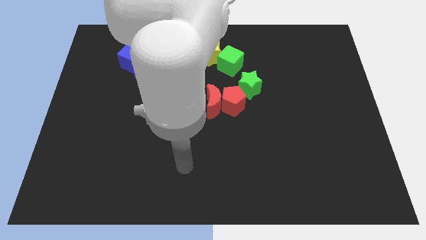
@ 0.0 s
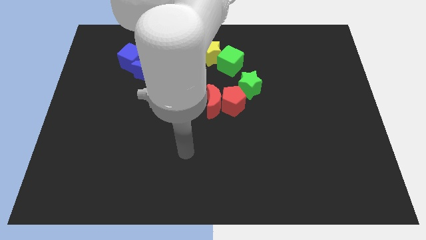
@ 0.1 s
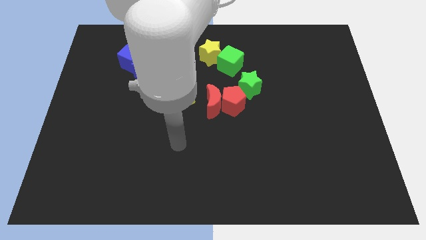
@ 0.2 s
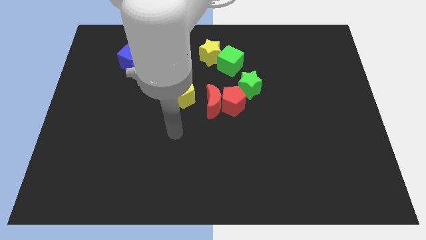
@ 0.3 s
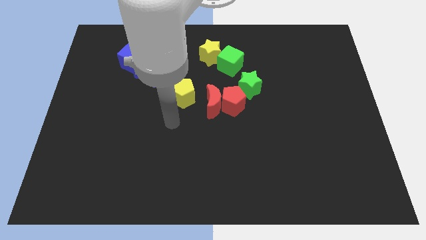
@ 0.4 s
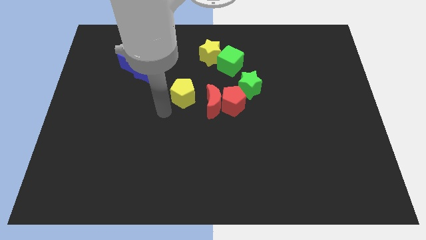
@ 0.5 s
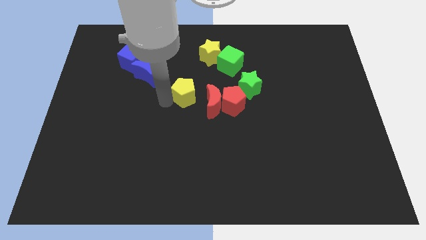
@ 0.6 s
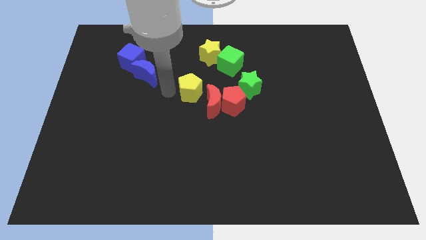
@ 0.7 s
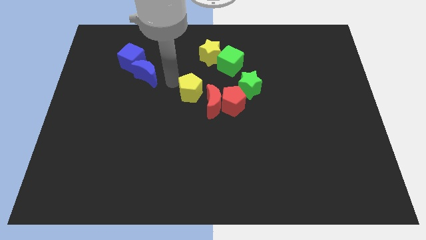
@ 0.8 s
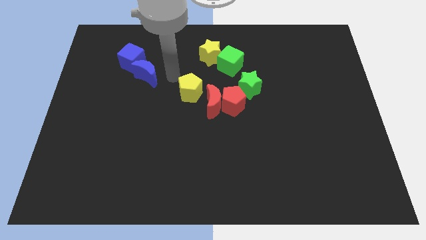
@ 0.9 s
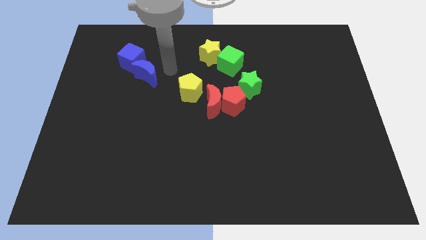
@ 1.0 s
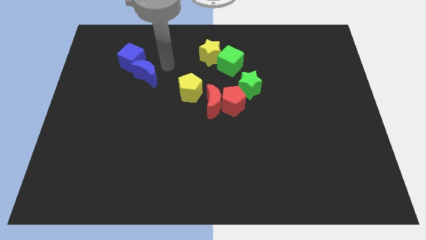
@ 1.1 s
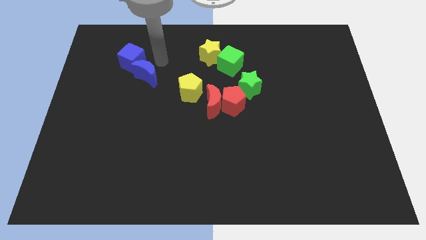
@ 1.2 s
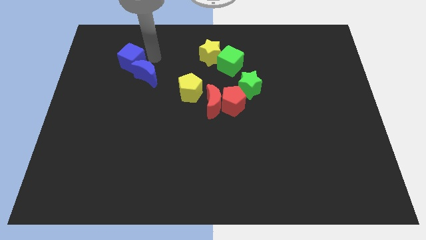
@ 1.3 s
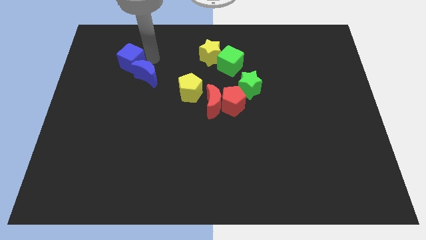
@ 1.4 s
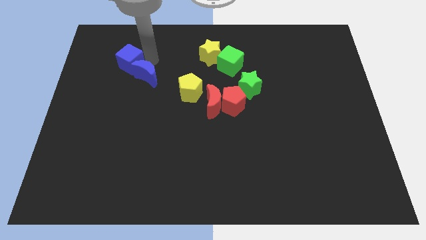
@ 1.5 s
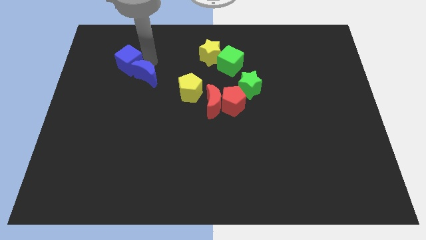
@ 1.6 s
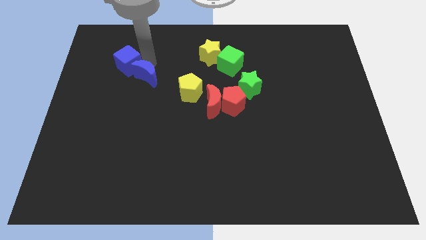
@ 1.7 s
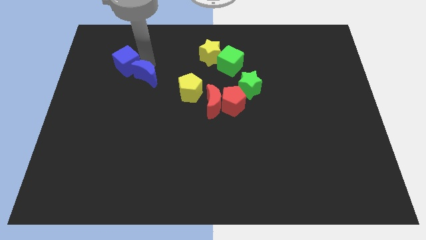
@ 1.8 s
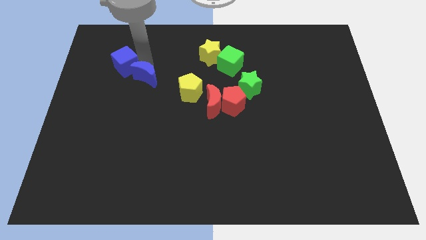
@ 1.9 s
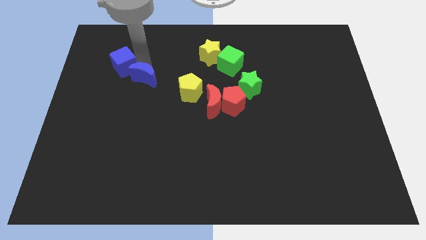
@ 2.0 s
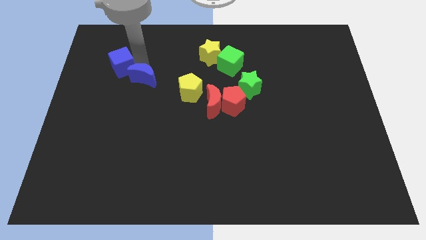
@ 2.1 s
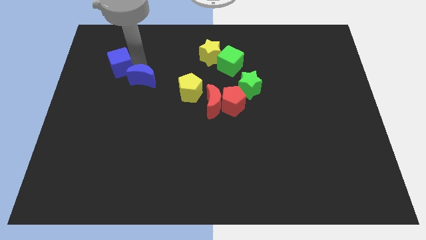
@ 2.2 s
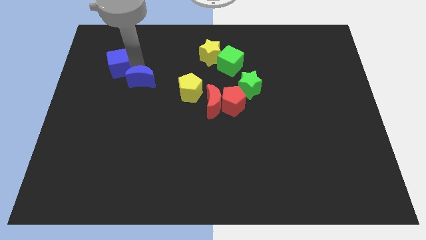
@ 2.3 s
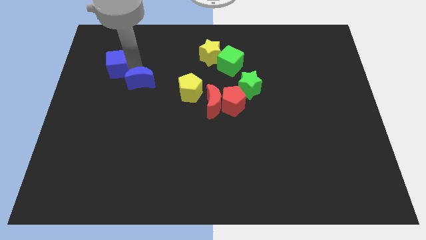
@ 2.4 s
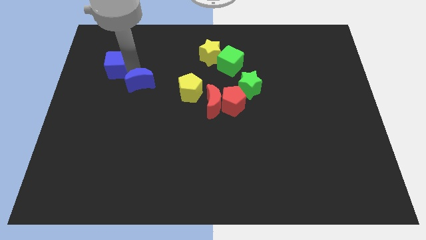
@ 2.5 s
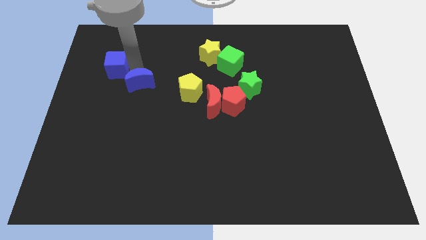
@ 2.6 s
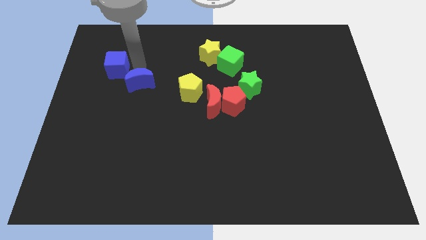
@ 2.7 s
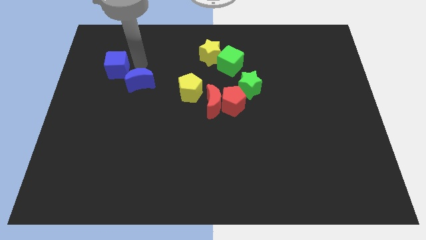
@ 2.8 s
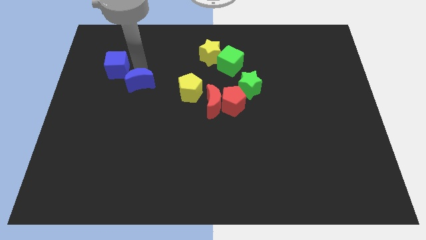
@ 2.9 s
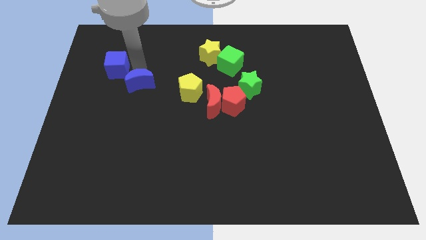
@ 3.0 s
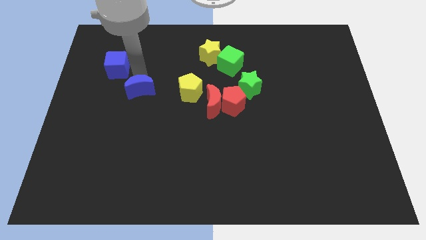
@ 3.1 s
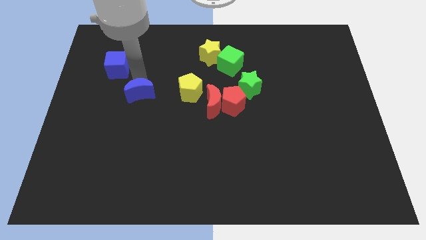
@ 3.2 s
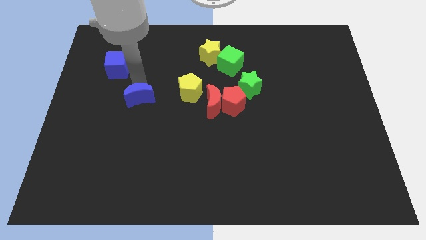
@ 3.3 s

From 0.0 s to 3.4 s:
push the blue moon slightly down

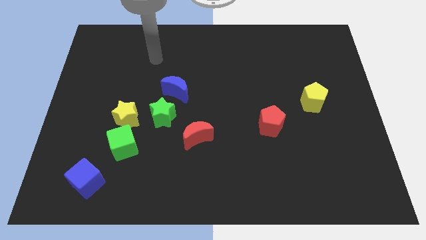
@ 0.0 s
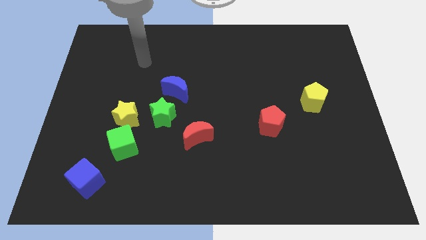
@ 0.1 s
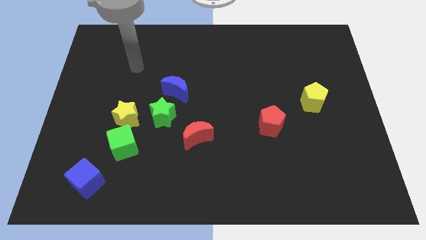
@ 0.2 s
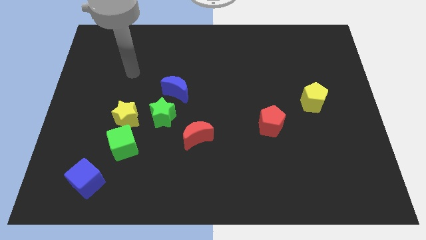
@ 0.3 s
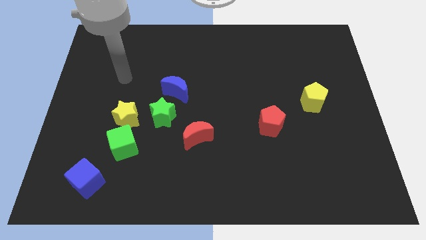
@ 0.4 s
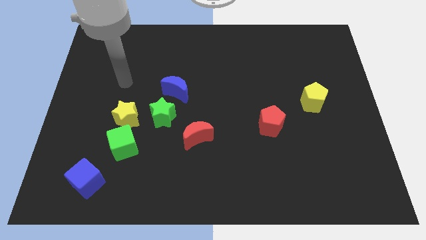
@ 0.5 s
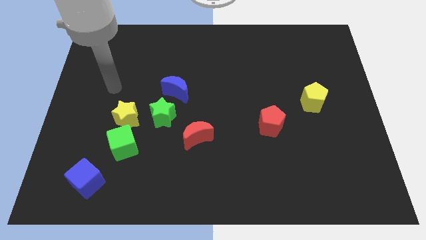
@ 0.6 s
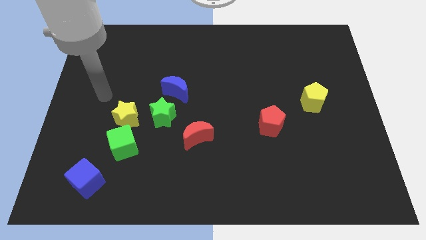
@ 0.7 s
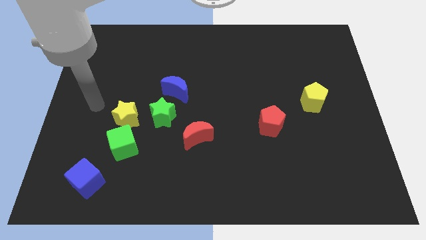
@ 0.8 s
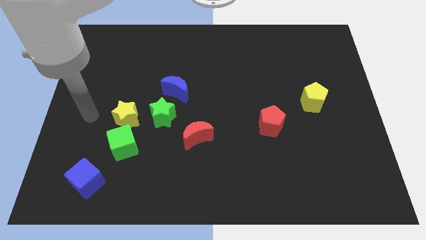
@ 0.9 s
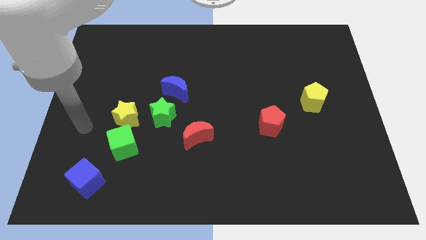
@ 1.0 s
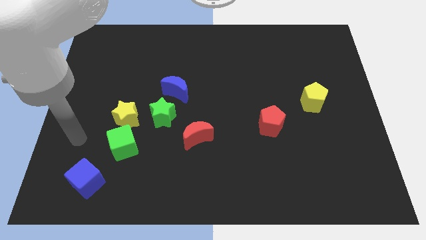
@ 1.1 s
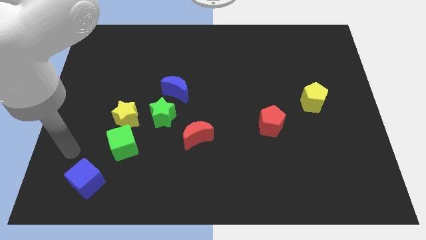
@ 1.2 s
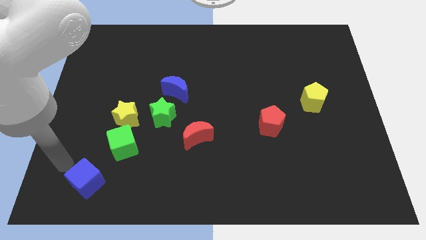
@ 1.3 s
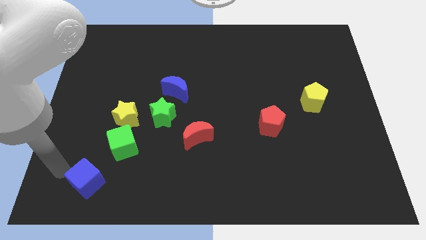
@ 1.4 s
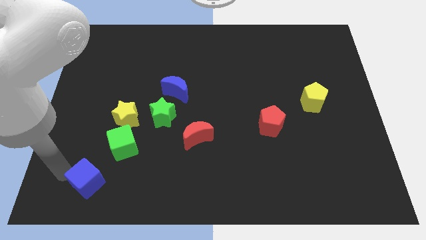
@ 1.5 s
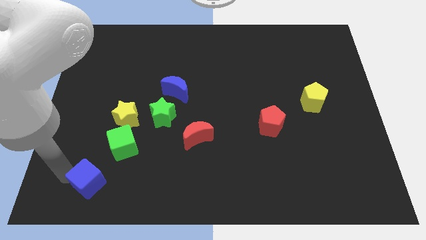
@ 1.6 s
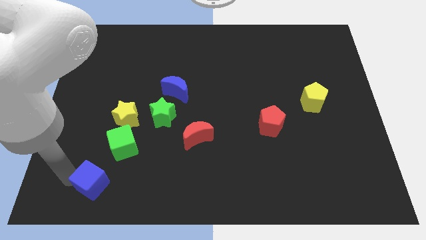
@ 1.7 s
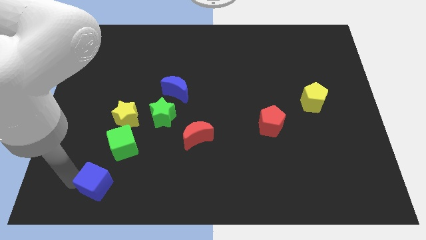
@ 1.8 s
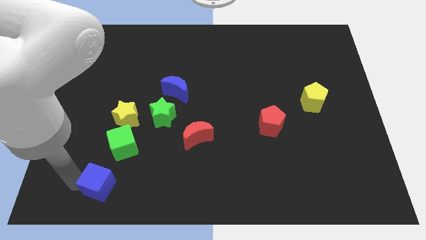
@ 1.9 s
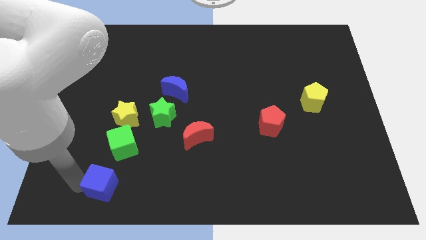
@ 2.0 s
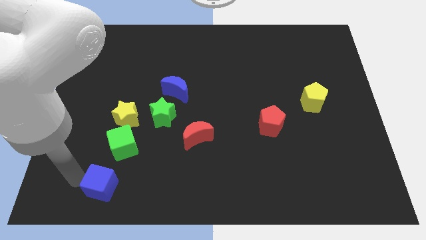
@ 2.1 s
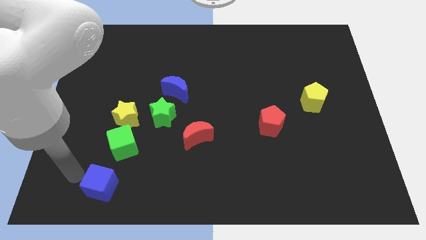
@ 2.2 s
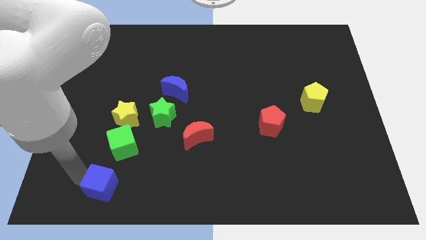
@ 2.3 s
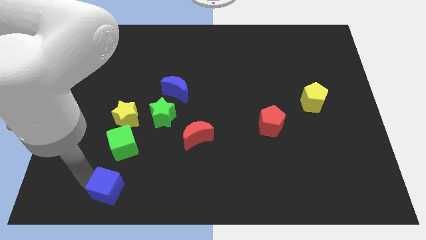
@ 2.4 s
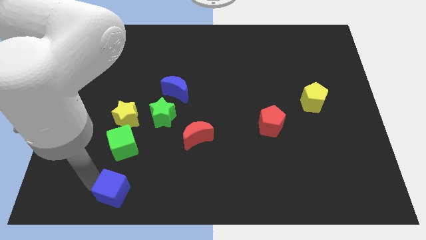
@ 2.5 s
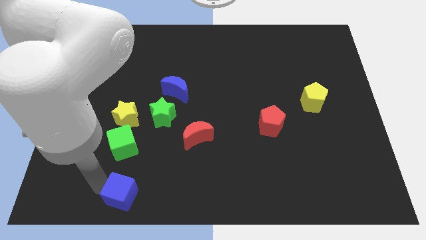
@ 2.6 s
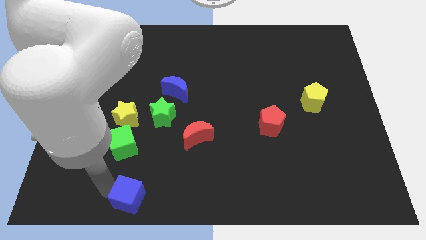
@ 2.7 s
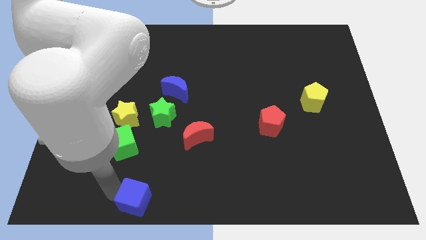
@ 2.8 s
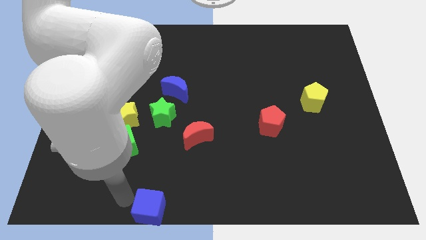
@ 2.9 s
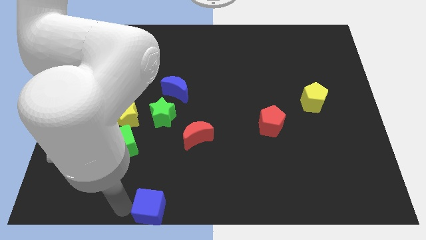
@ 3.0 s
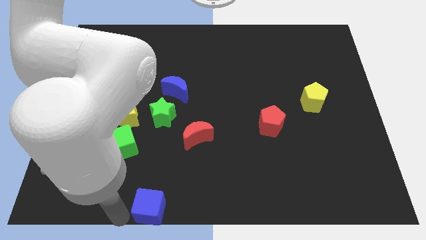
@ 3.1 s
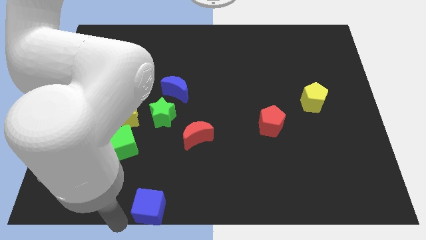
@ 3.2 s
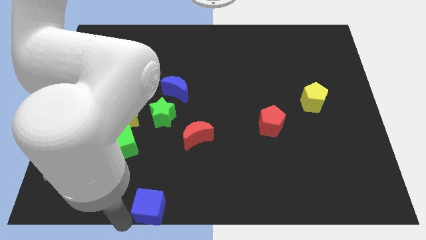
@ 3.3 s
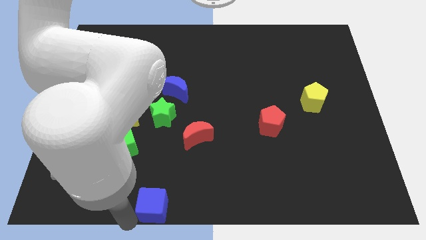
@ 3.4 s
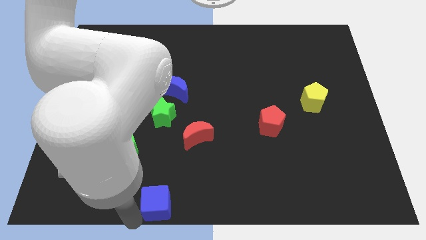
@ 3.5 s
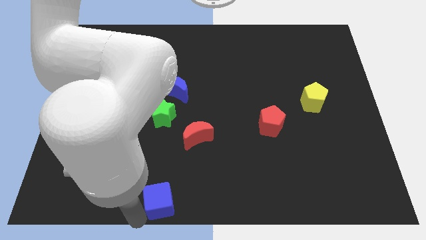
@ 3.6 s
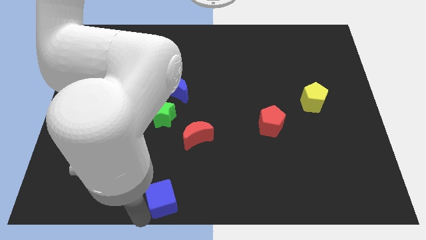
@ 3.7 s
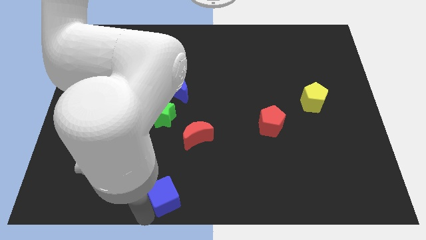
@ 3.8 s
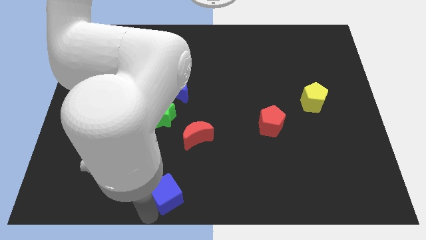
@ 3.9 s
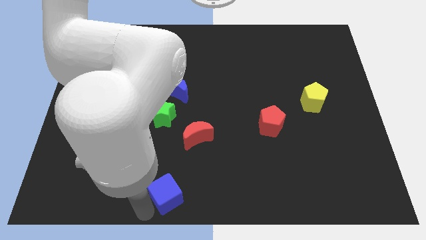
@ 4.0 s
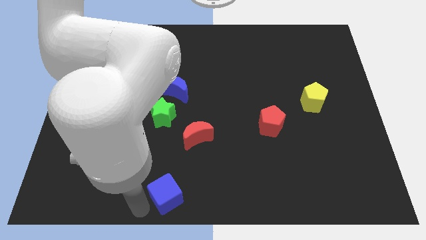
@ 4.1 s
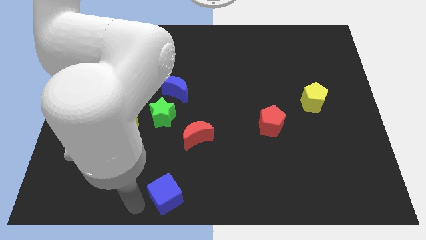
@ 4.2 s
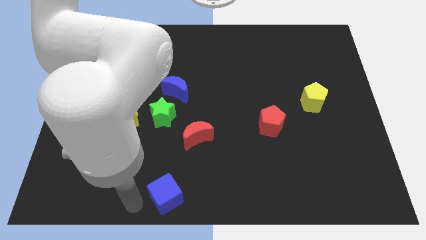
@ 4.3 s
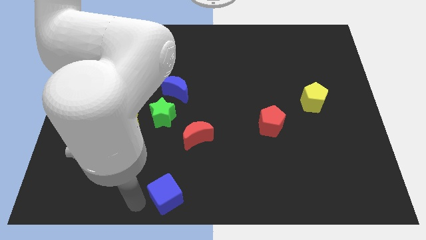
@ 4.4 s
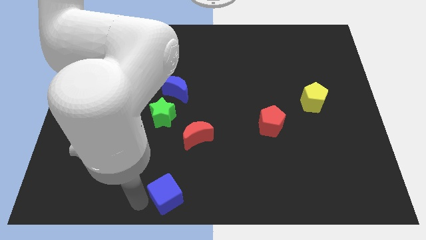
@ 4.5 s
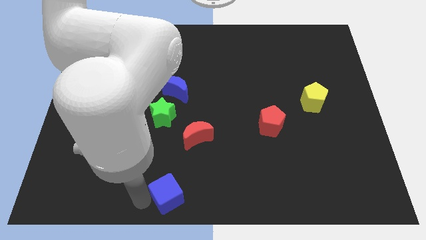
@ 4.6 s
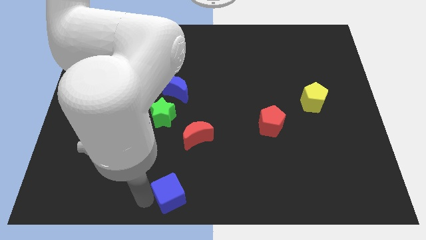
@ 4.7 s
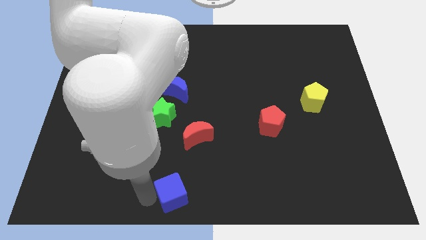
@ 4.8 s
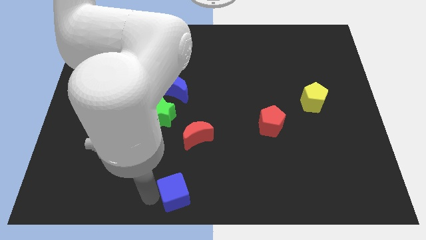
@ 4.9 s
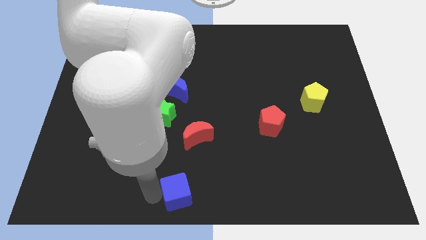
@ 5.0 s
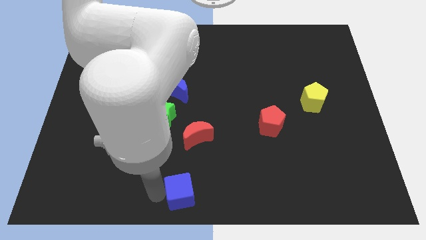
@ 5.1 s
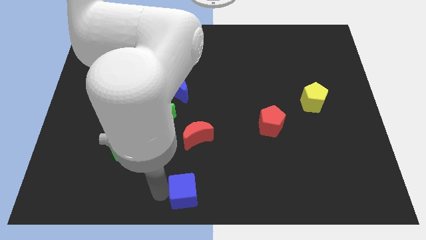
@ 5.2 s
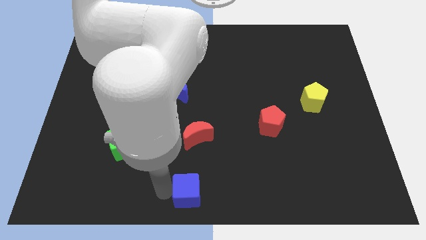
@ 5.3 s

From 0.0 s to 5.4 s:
push the blue cube to the right
